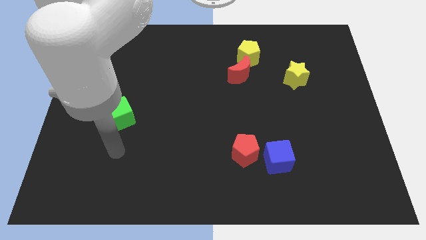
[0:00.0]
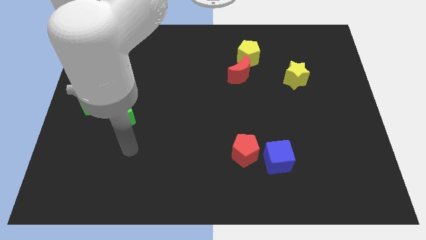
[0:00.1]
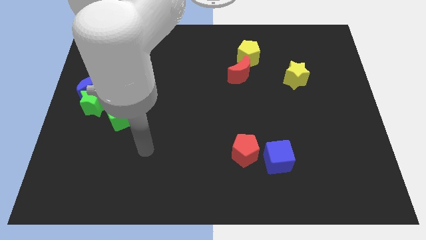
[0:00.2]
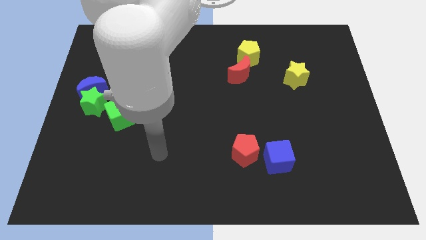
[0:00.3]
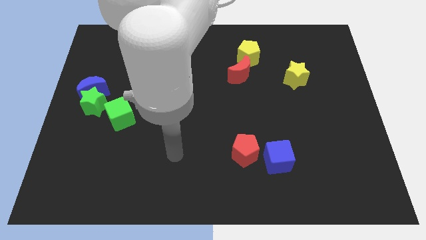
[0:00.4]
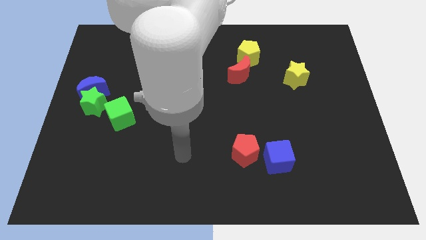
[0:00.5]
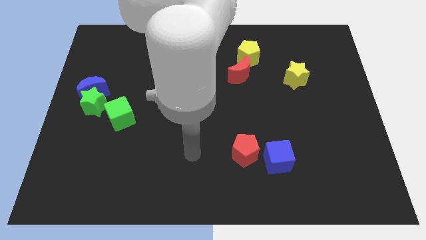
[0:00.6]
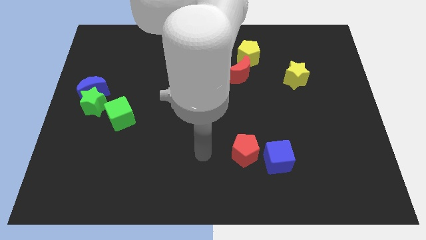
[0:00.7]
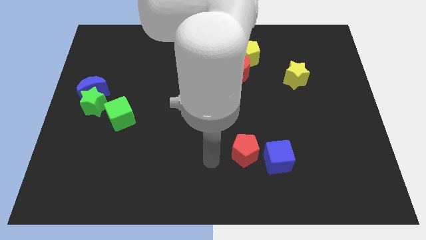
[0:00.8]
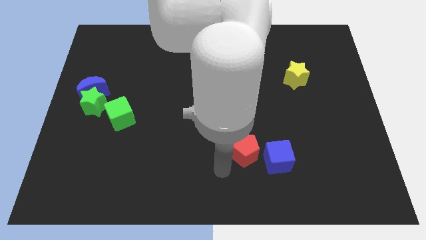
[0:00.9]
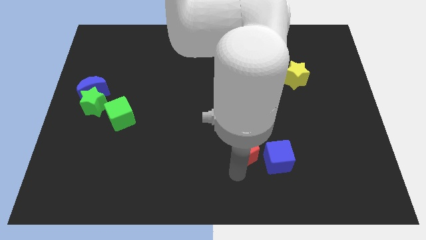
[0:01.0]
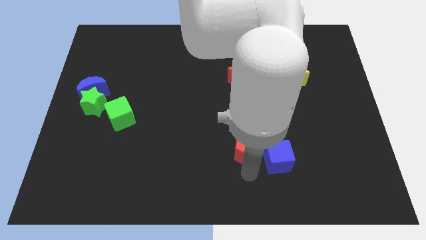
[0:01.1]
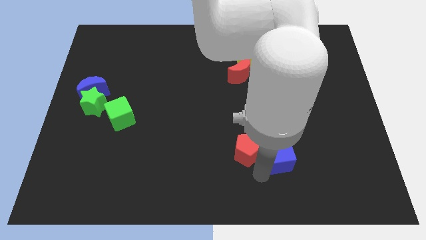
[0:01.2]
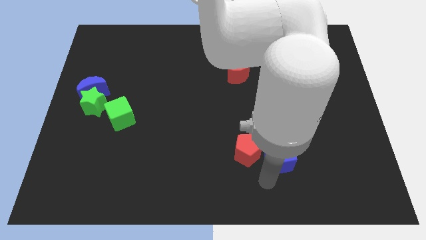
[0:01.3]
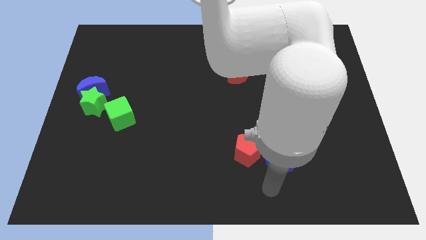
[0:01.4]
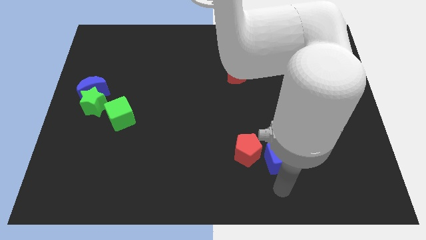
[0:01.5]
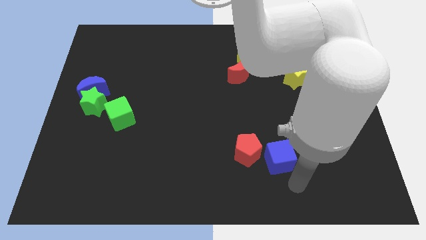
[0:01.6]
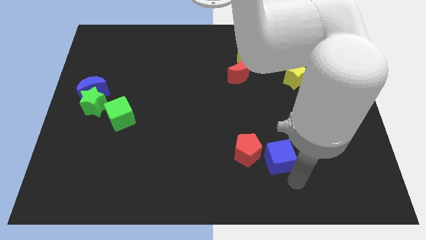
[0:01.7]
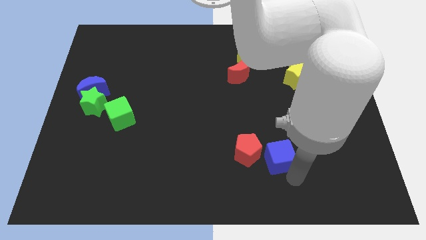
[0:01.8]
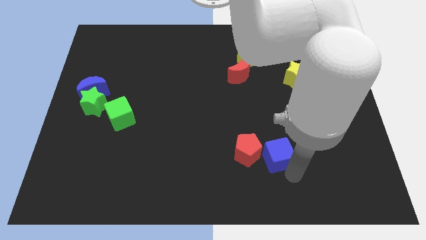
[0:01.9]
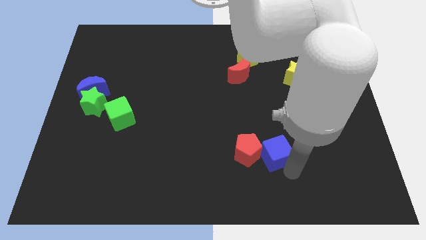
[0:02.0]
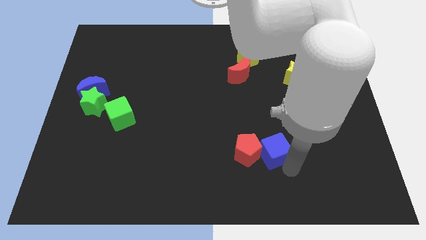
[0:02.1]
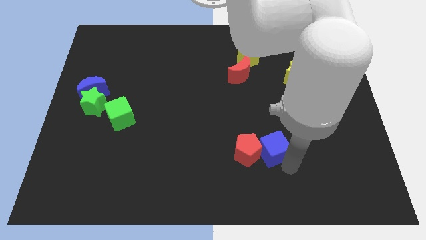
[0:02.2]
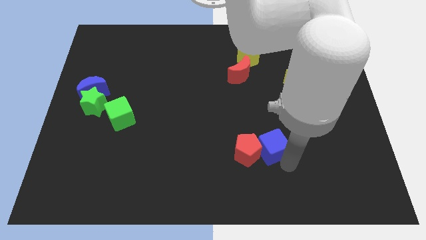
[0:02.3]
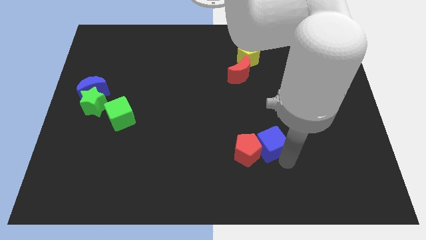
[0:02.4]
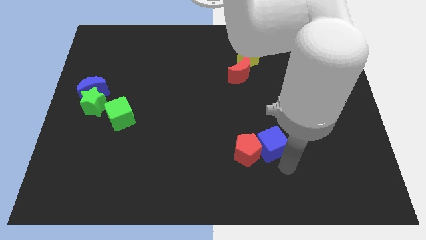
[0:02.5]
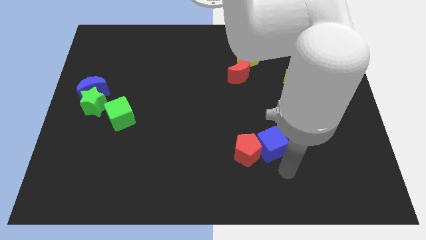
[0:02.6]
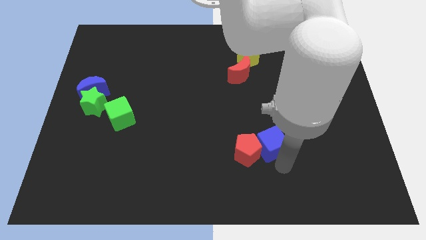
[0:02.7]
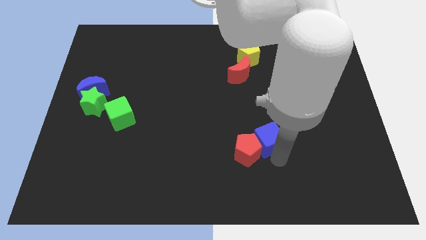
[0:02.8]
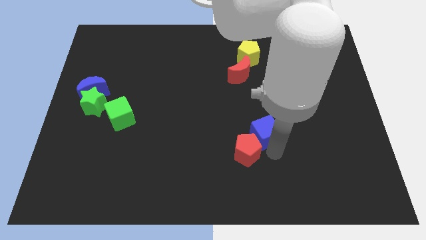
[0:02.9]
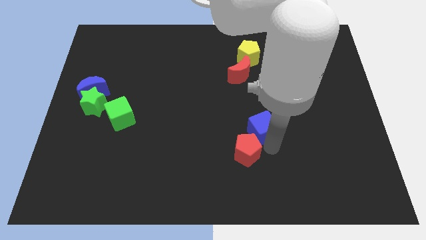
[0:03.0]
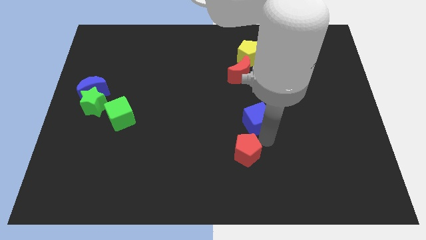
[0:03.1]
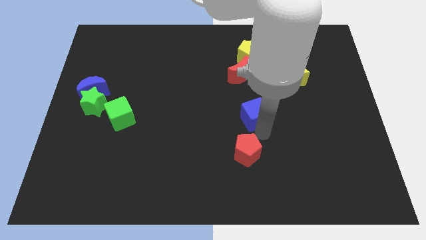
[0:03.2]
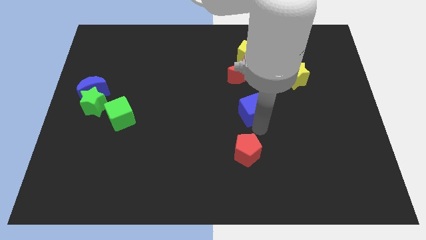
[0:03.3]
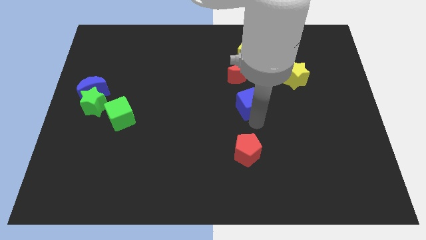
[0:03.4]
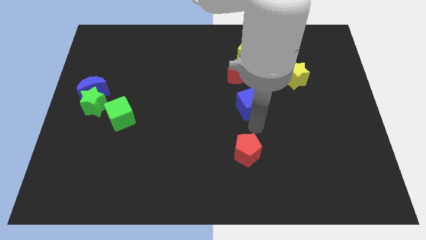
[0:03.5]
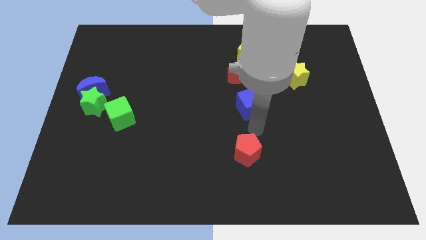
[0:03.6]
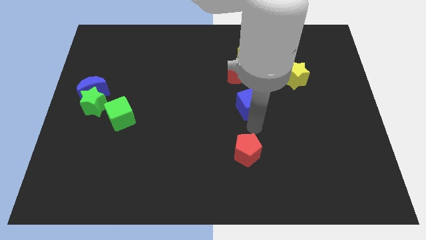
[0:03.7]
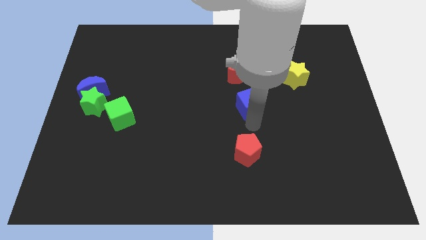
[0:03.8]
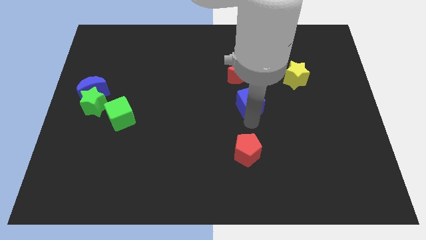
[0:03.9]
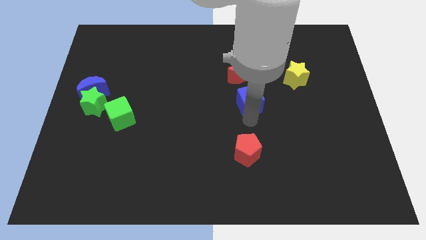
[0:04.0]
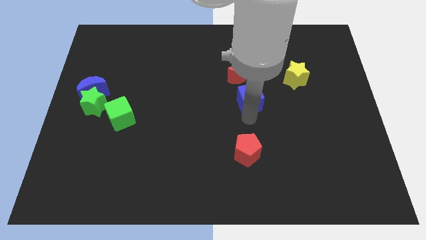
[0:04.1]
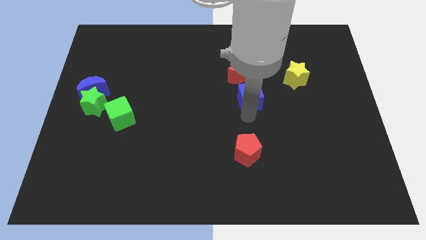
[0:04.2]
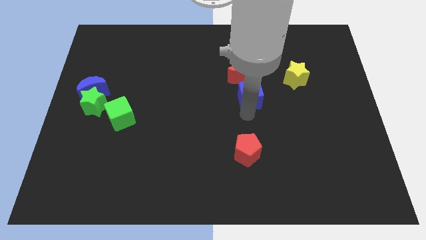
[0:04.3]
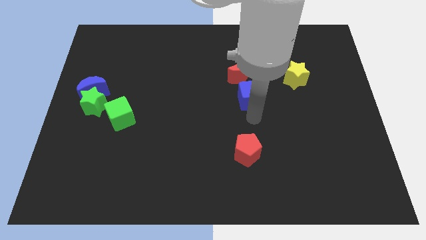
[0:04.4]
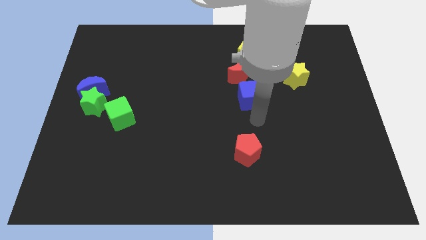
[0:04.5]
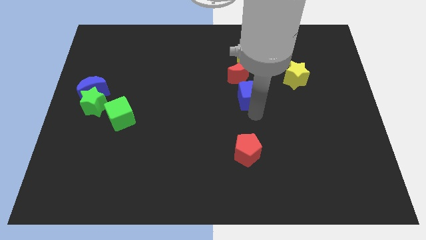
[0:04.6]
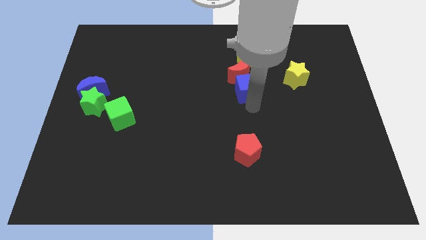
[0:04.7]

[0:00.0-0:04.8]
put the blue cube close to the red moon

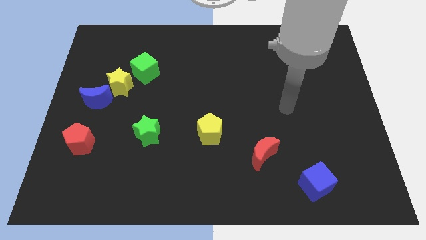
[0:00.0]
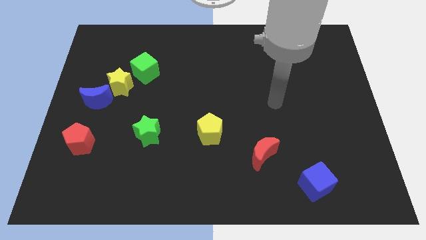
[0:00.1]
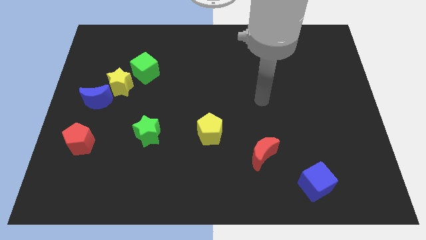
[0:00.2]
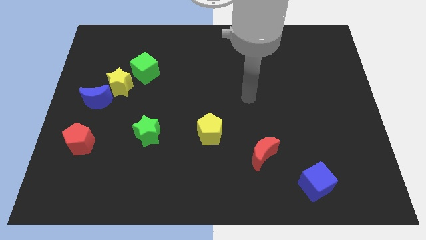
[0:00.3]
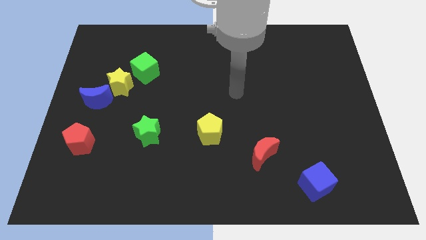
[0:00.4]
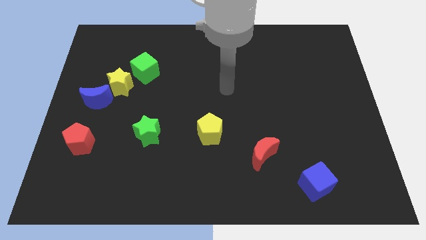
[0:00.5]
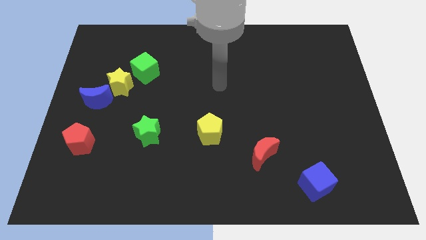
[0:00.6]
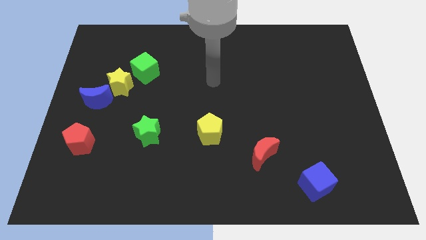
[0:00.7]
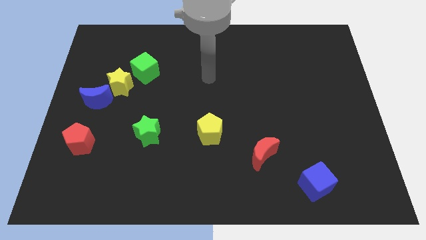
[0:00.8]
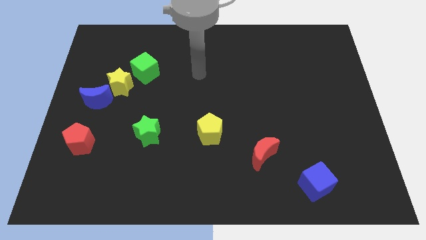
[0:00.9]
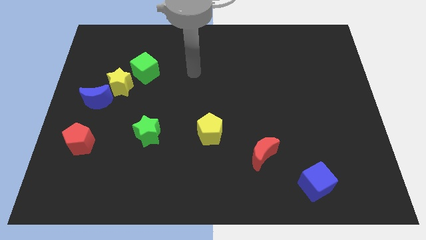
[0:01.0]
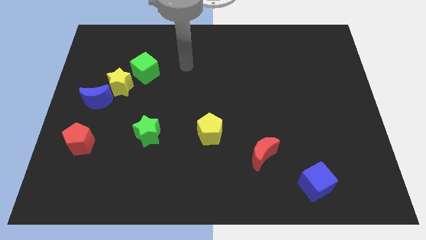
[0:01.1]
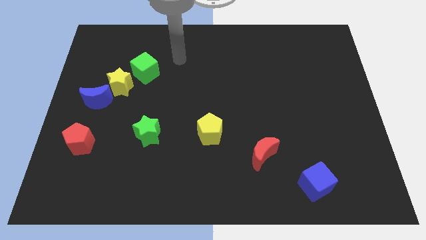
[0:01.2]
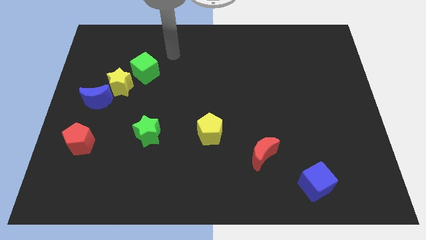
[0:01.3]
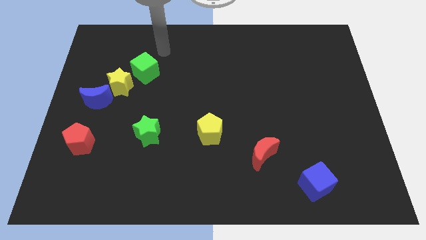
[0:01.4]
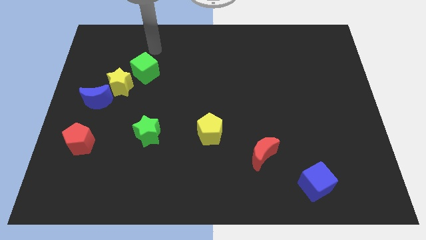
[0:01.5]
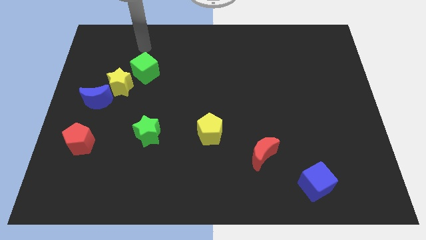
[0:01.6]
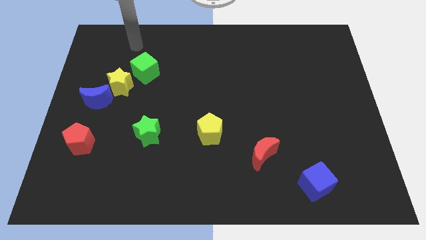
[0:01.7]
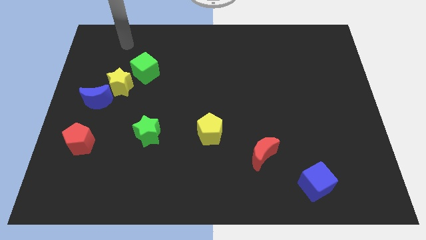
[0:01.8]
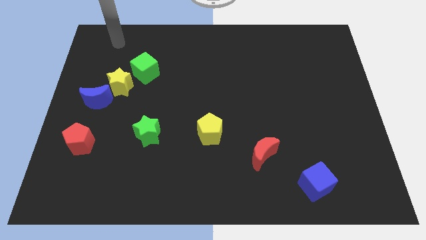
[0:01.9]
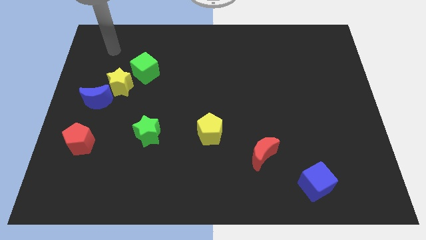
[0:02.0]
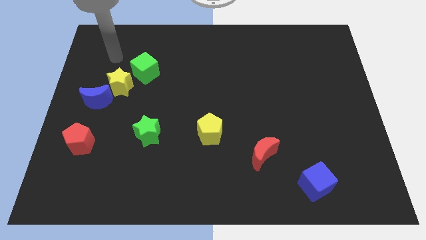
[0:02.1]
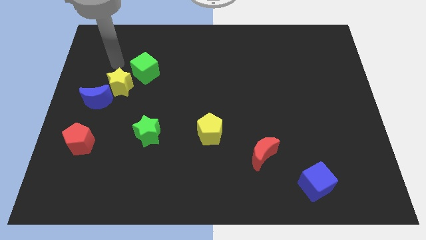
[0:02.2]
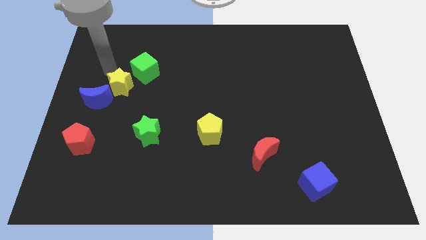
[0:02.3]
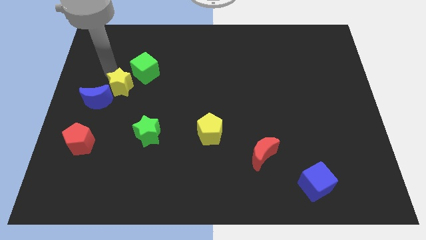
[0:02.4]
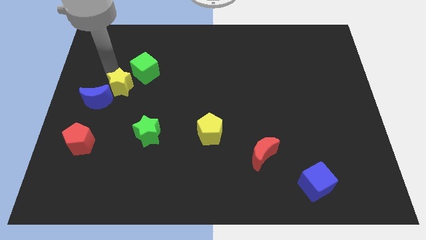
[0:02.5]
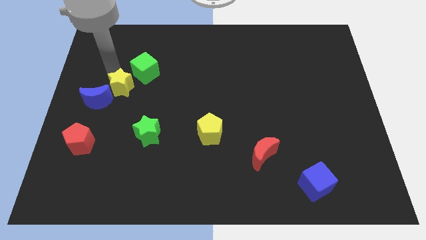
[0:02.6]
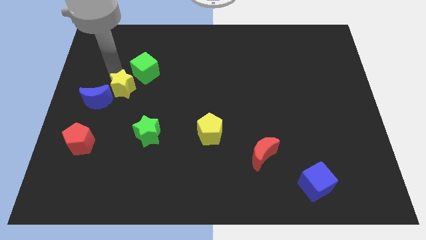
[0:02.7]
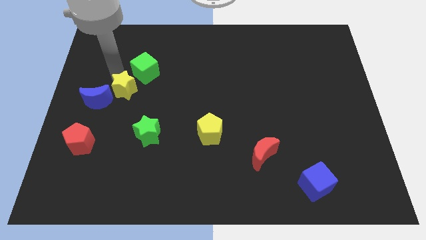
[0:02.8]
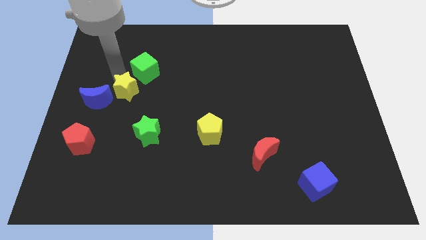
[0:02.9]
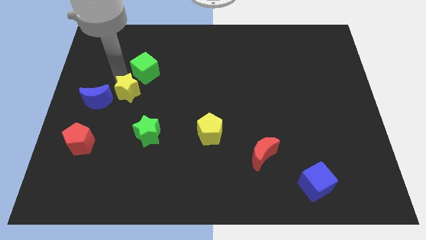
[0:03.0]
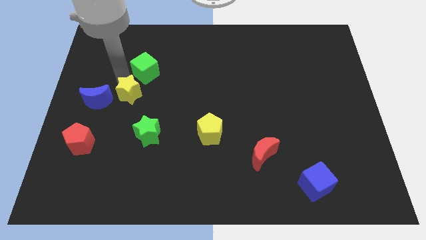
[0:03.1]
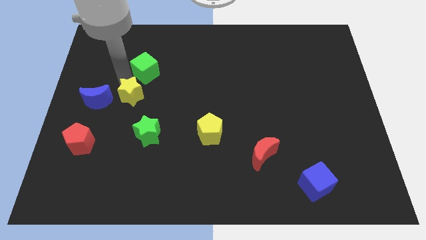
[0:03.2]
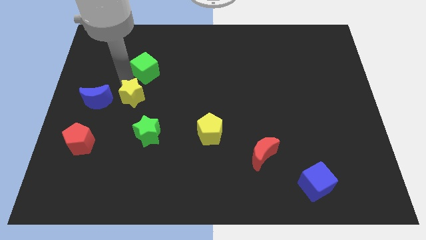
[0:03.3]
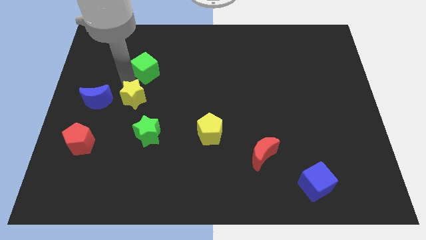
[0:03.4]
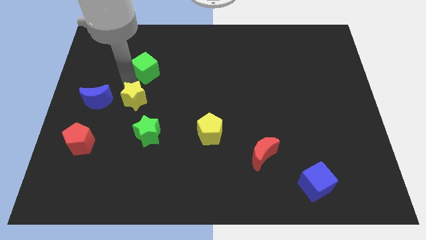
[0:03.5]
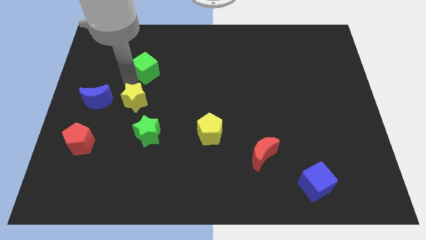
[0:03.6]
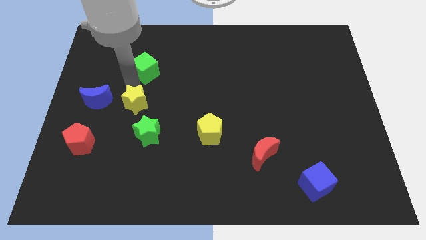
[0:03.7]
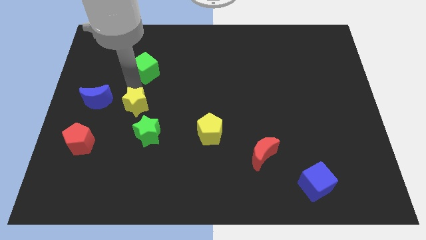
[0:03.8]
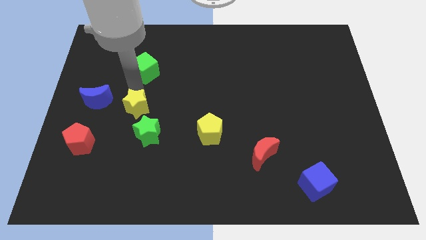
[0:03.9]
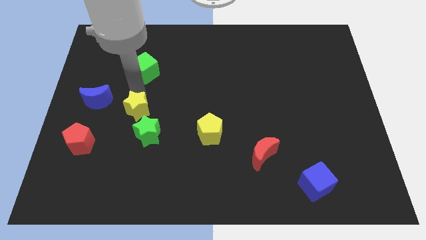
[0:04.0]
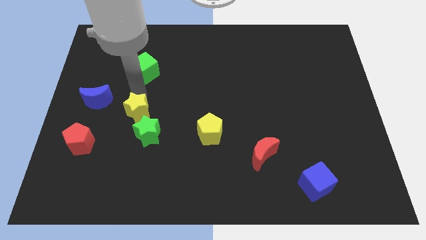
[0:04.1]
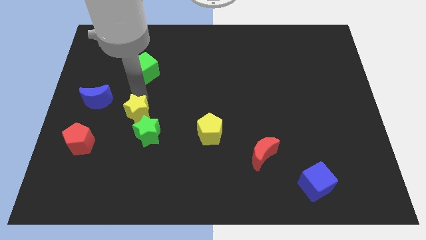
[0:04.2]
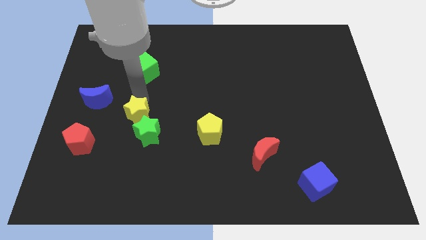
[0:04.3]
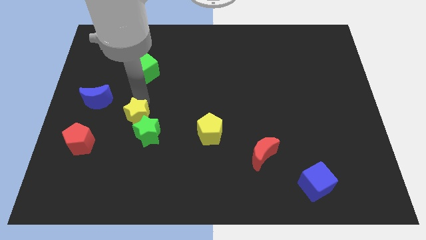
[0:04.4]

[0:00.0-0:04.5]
push the yellow star towards the green star
